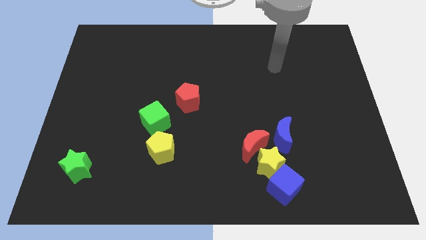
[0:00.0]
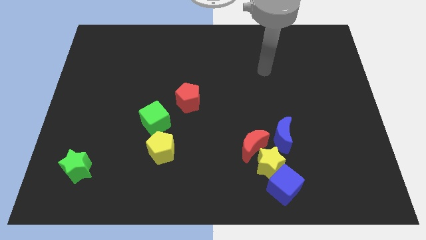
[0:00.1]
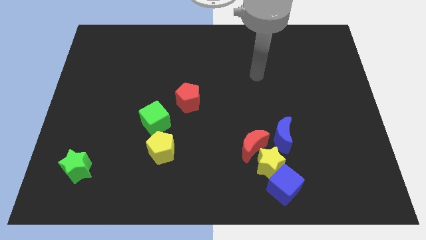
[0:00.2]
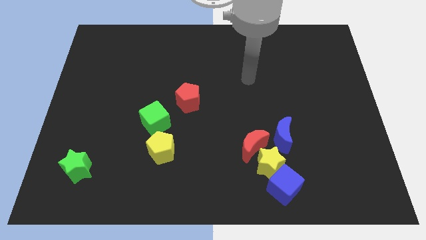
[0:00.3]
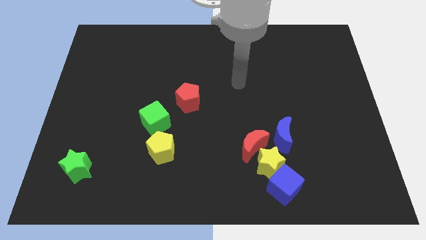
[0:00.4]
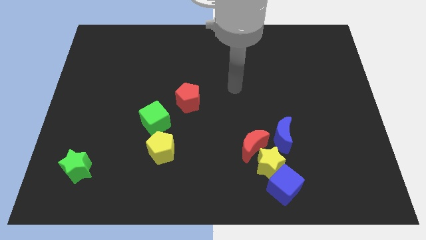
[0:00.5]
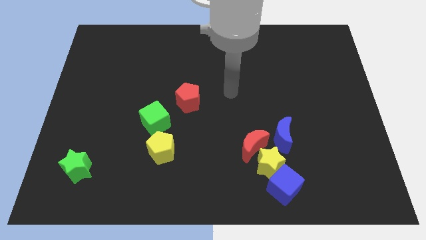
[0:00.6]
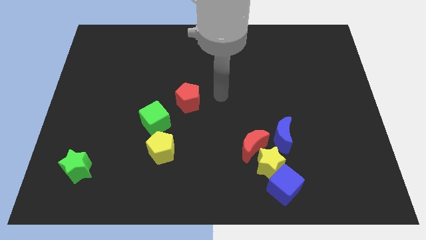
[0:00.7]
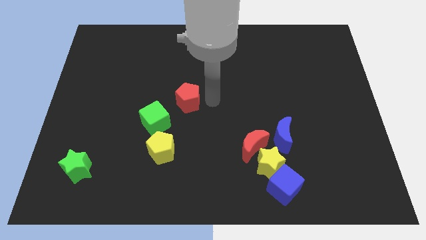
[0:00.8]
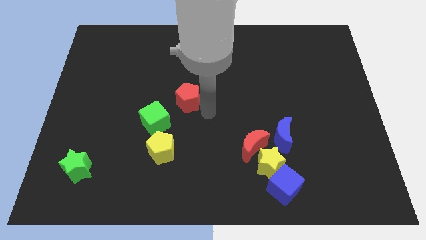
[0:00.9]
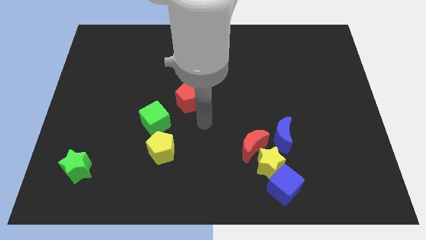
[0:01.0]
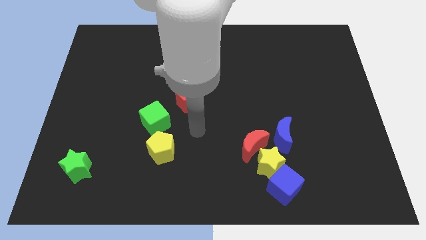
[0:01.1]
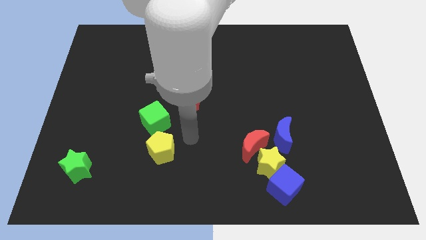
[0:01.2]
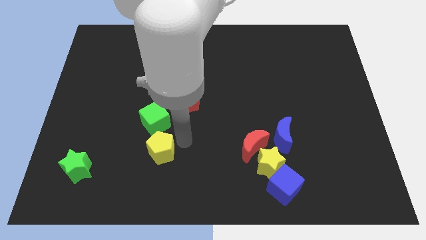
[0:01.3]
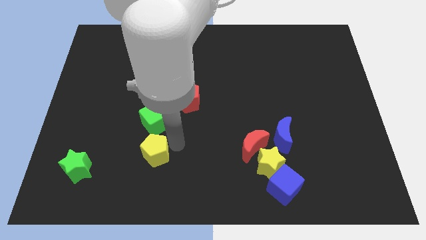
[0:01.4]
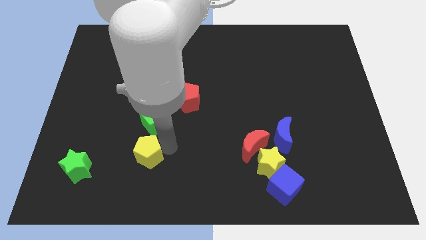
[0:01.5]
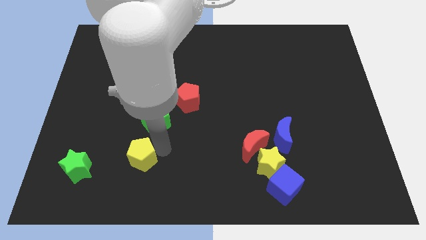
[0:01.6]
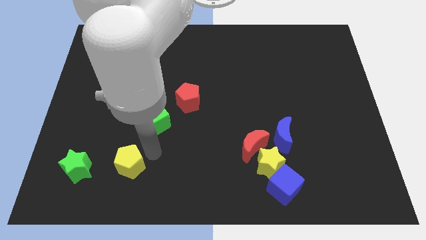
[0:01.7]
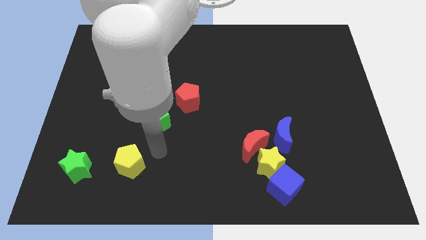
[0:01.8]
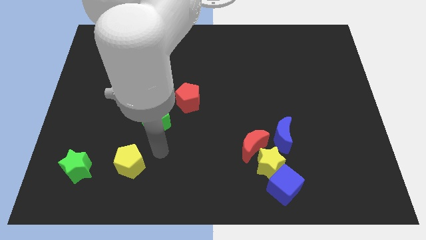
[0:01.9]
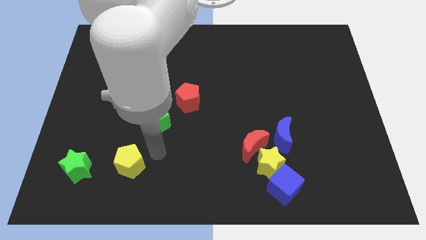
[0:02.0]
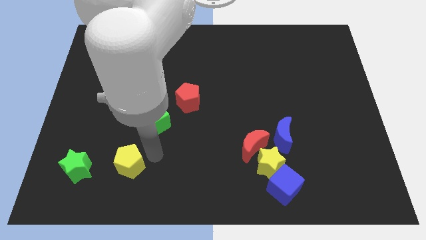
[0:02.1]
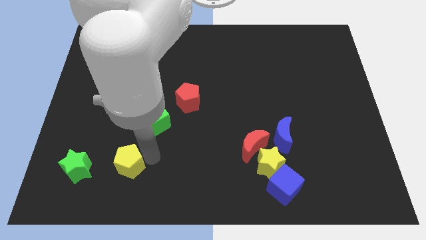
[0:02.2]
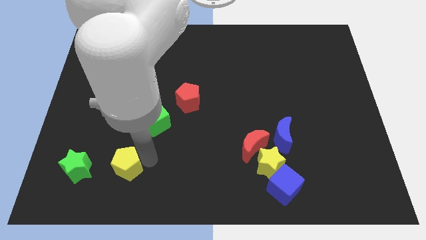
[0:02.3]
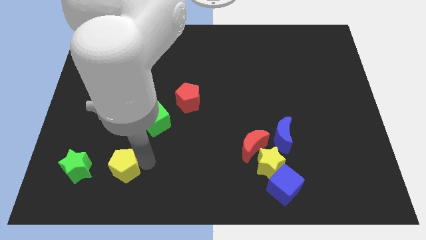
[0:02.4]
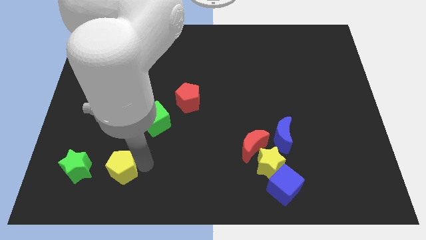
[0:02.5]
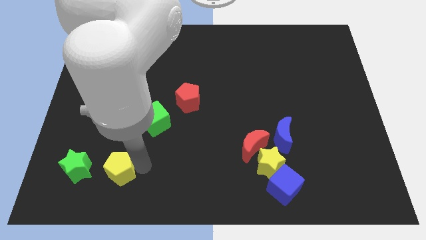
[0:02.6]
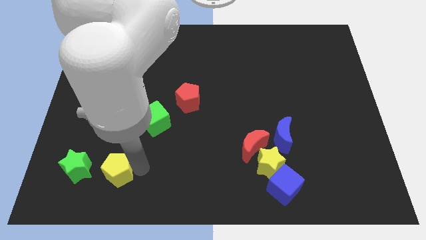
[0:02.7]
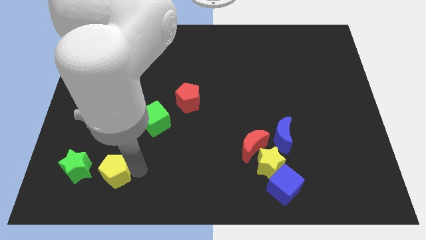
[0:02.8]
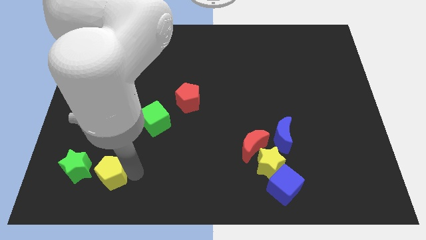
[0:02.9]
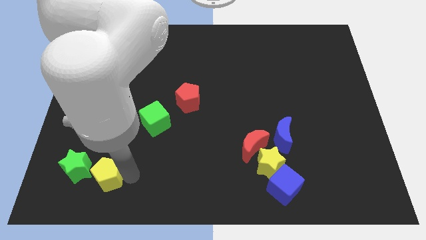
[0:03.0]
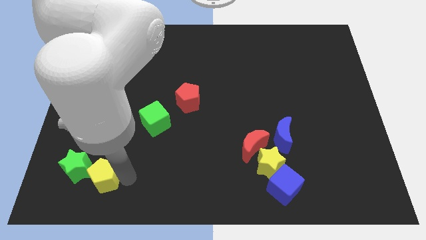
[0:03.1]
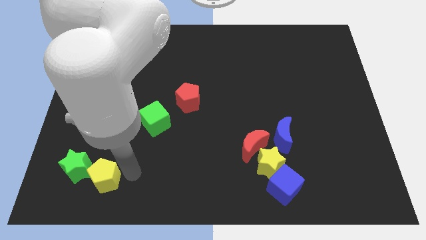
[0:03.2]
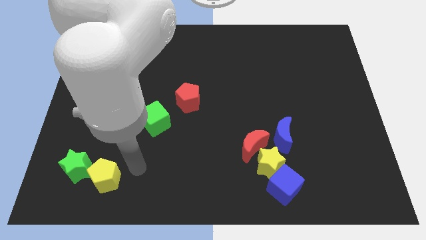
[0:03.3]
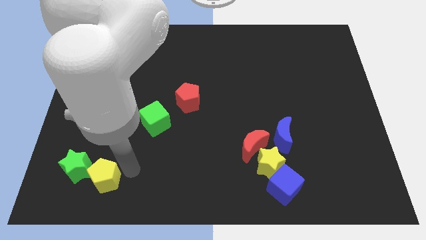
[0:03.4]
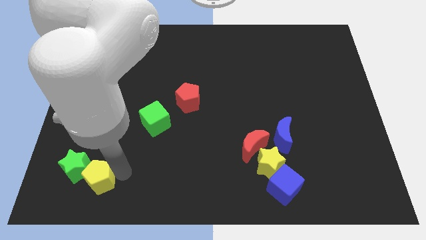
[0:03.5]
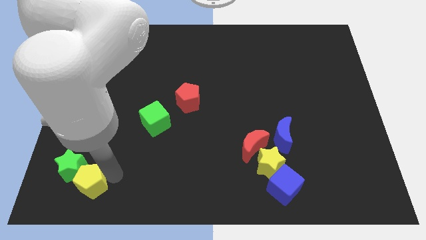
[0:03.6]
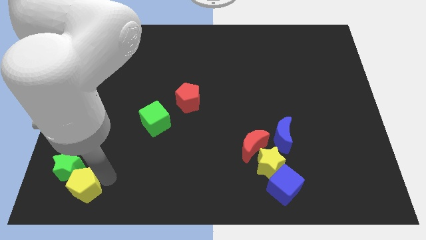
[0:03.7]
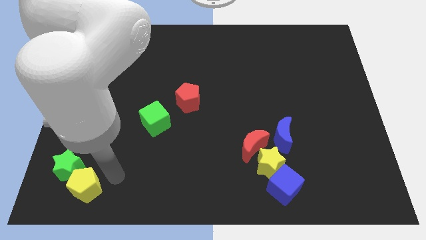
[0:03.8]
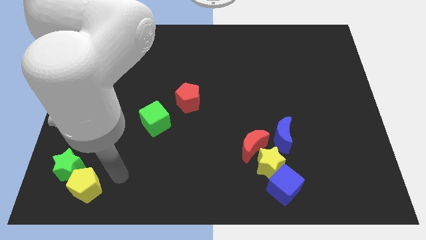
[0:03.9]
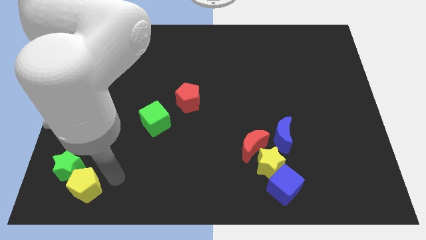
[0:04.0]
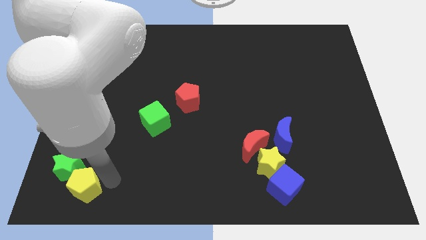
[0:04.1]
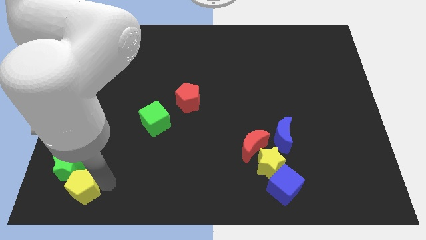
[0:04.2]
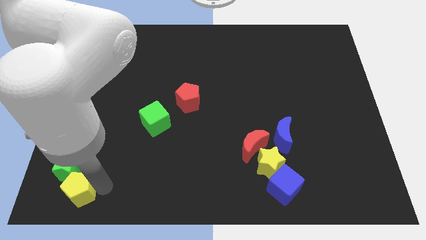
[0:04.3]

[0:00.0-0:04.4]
move the yellow pentagon to the bottom left corner

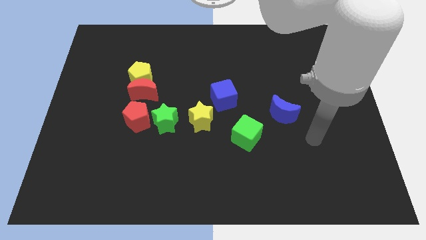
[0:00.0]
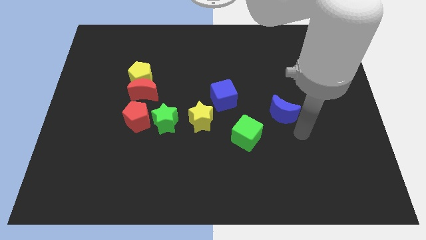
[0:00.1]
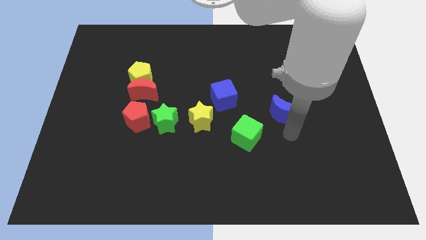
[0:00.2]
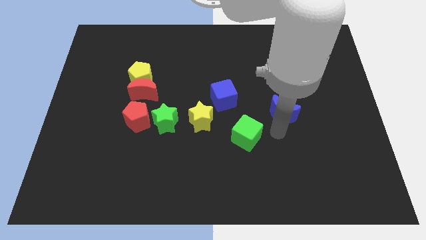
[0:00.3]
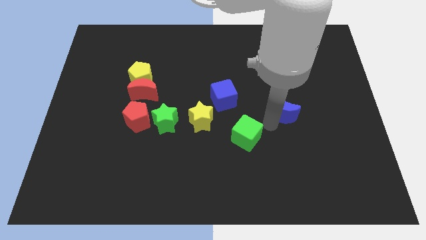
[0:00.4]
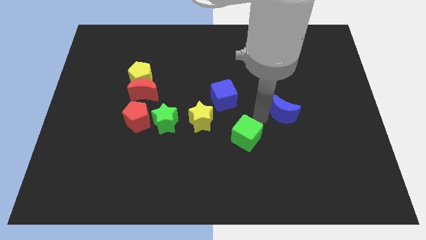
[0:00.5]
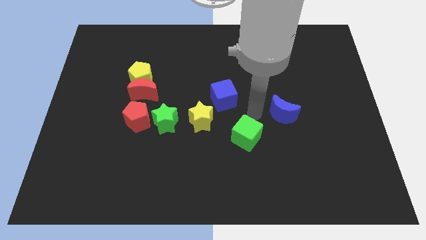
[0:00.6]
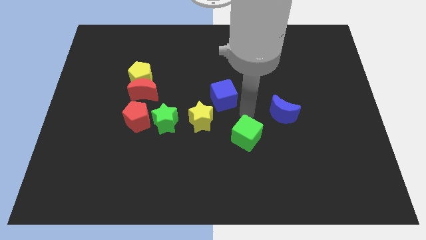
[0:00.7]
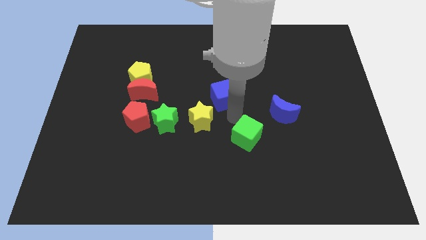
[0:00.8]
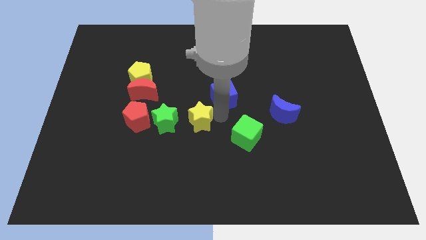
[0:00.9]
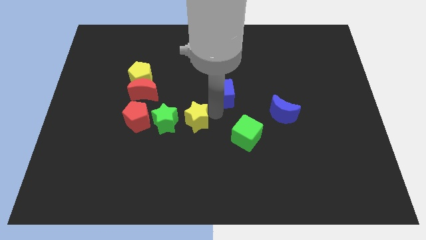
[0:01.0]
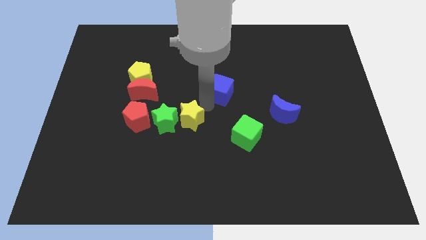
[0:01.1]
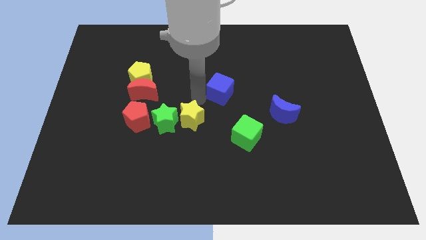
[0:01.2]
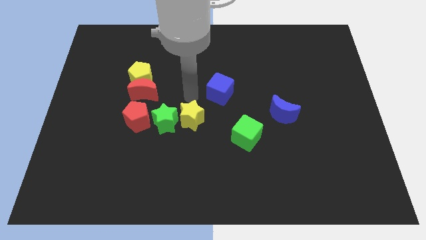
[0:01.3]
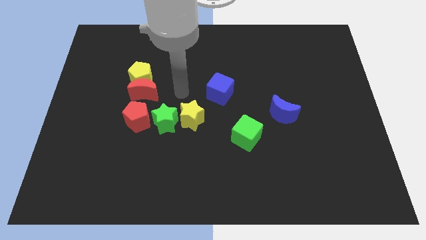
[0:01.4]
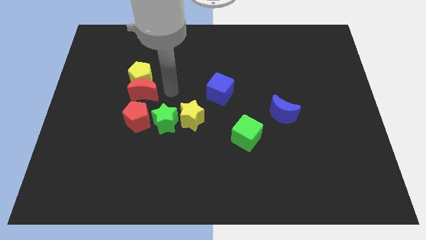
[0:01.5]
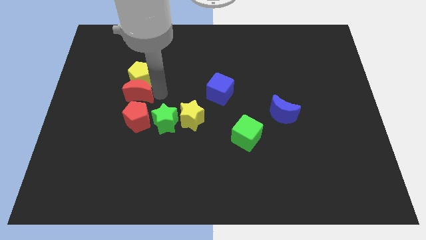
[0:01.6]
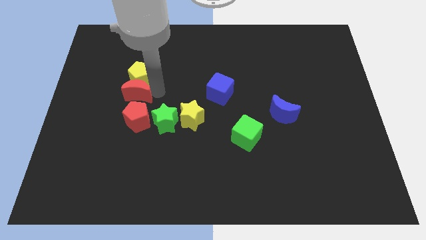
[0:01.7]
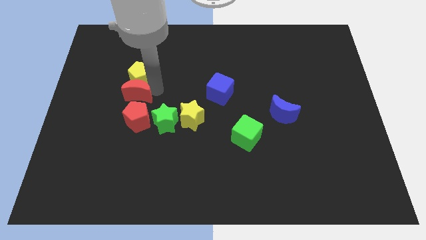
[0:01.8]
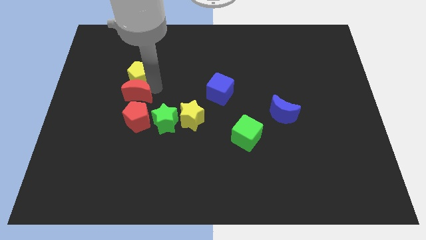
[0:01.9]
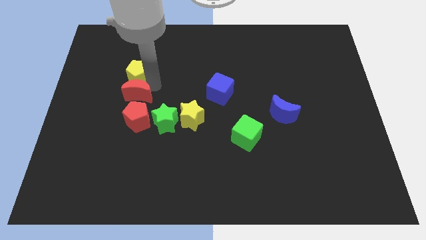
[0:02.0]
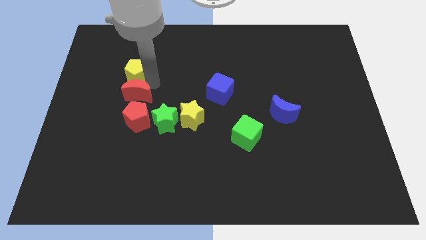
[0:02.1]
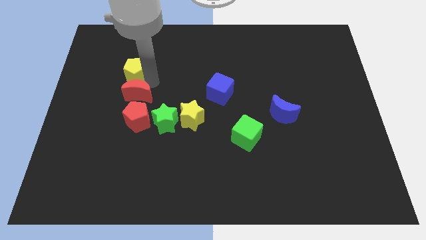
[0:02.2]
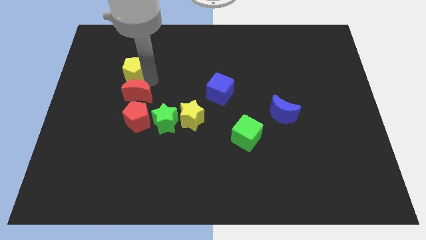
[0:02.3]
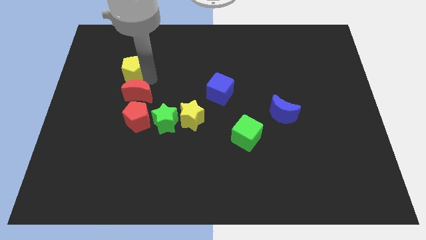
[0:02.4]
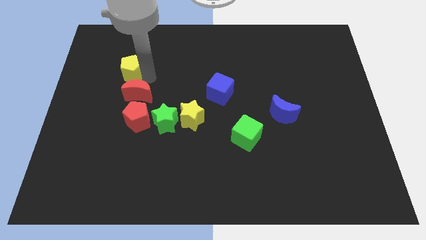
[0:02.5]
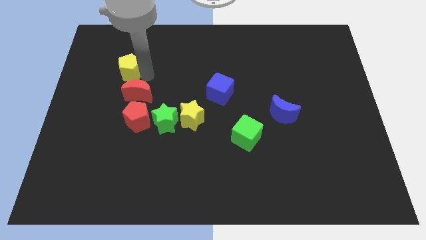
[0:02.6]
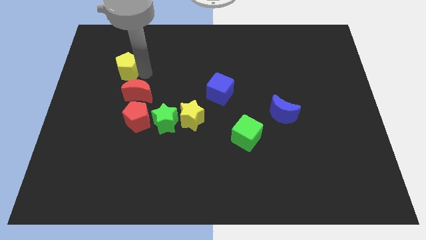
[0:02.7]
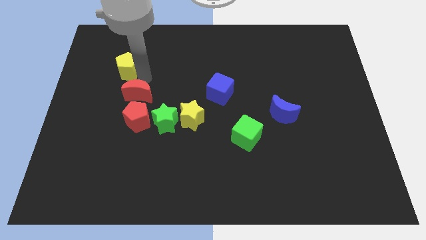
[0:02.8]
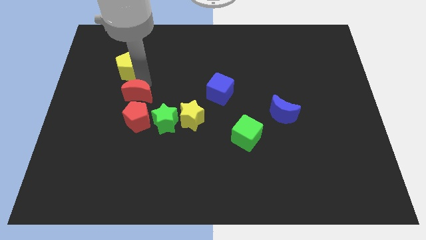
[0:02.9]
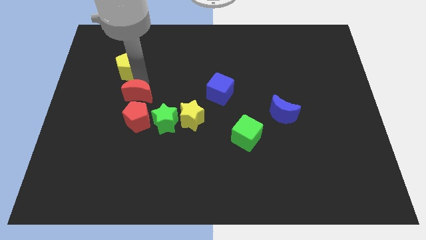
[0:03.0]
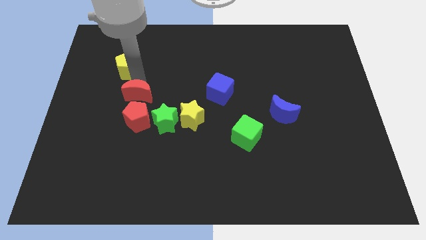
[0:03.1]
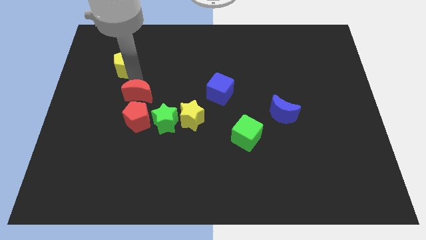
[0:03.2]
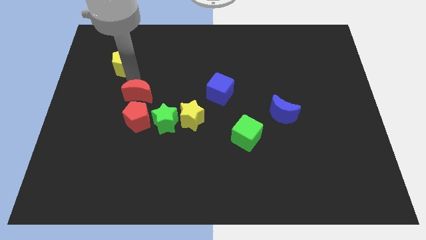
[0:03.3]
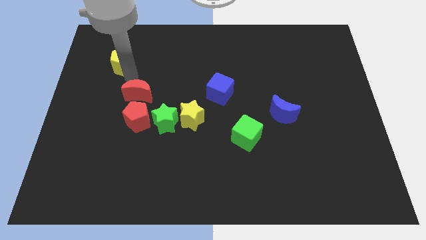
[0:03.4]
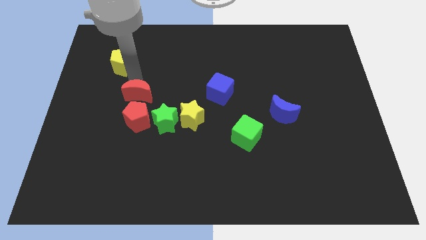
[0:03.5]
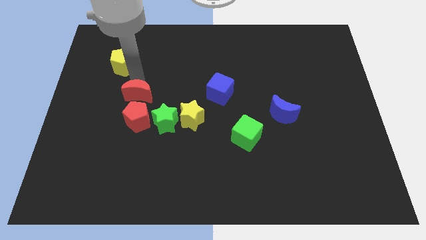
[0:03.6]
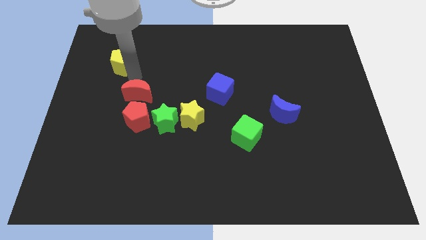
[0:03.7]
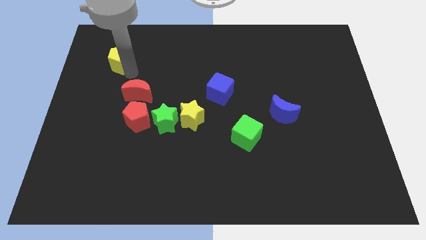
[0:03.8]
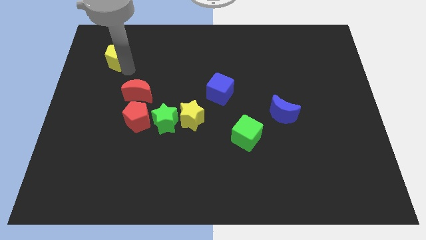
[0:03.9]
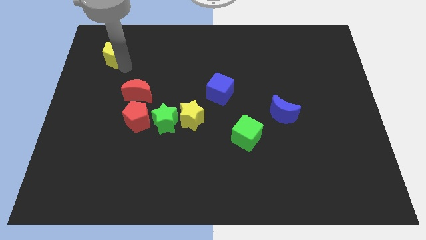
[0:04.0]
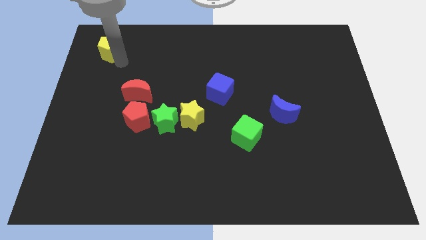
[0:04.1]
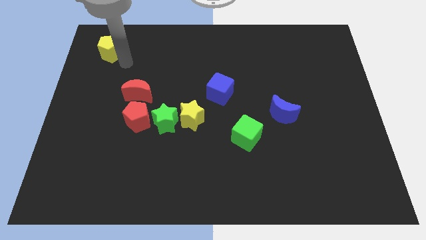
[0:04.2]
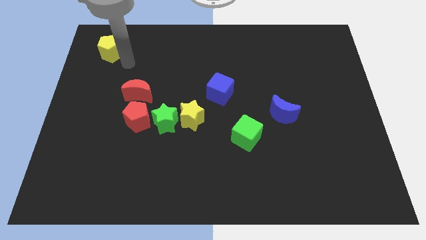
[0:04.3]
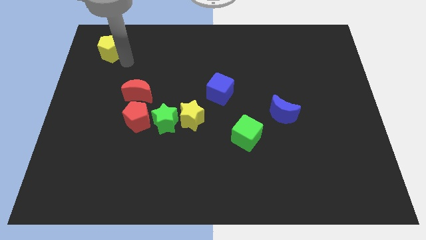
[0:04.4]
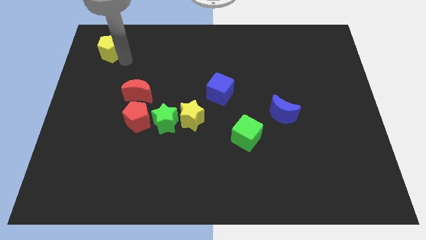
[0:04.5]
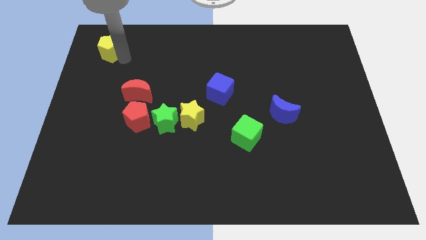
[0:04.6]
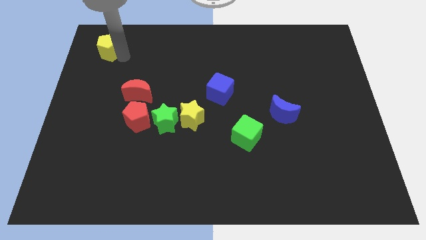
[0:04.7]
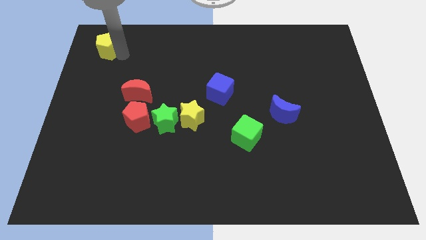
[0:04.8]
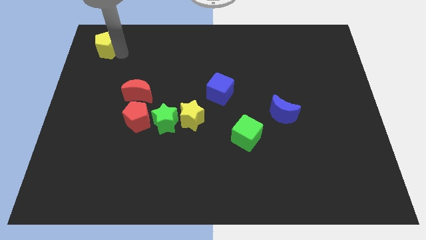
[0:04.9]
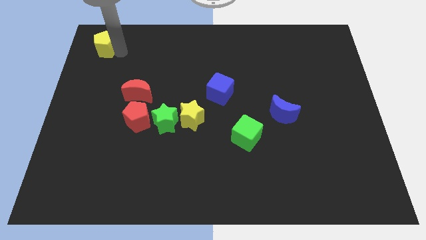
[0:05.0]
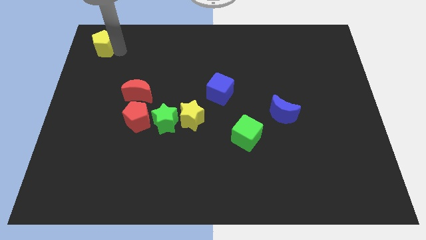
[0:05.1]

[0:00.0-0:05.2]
slide the yellow pentagon to the top left corner
